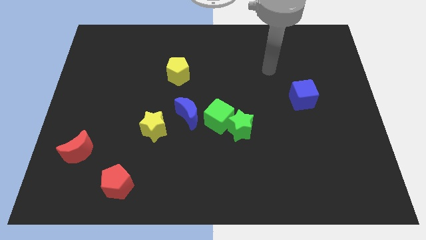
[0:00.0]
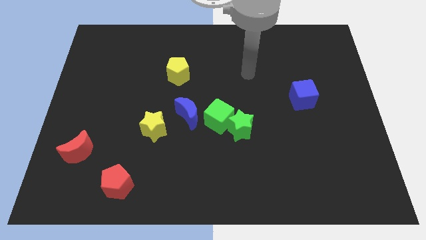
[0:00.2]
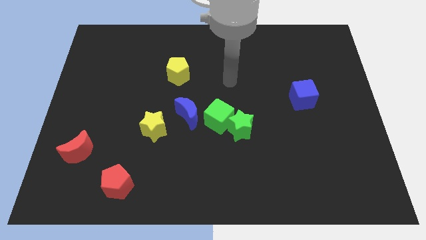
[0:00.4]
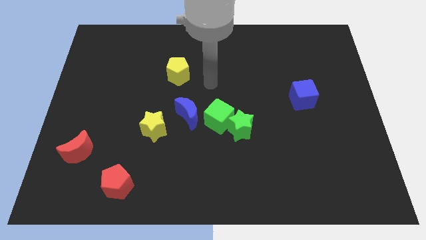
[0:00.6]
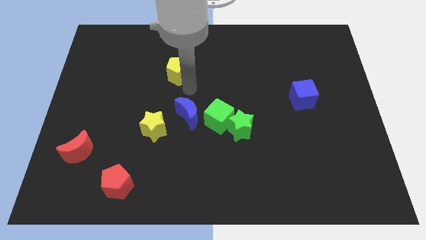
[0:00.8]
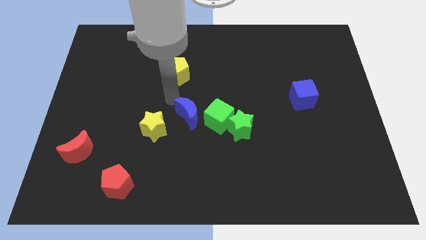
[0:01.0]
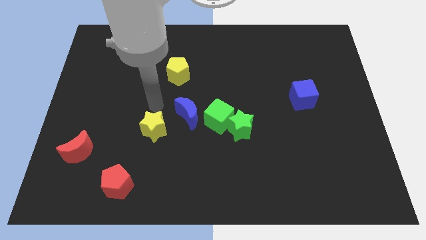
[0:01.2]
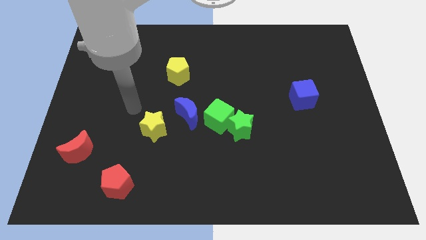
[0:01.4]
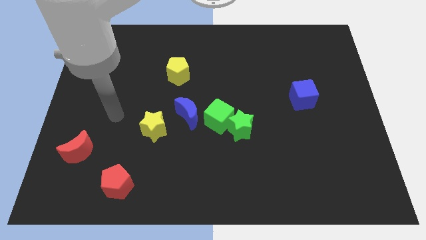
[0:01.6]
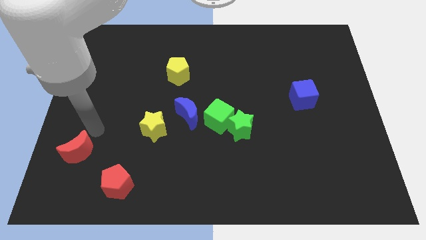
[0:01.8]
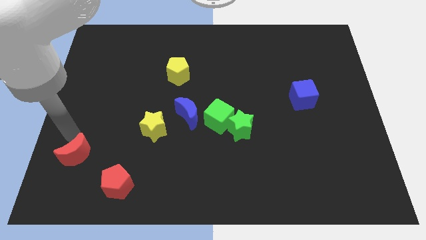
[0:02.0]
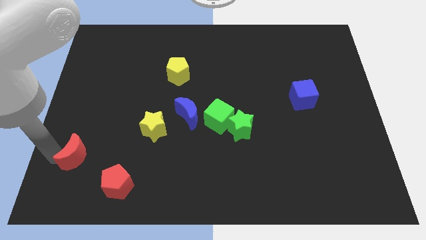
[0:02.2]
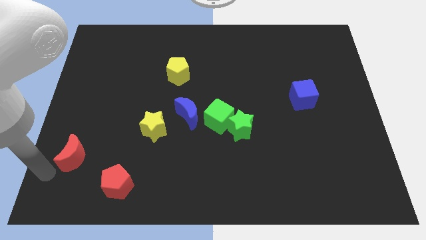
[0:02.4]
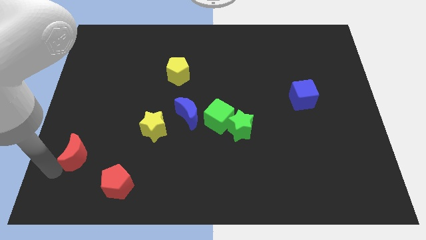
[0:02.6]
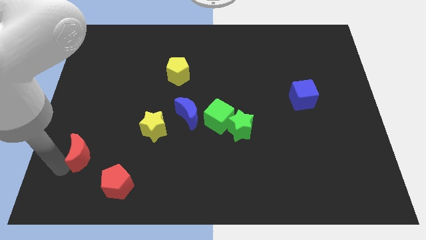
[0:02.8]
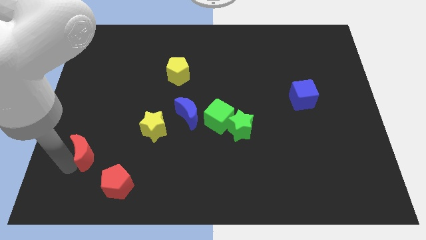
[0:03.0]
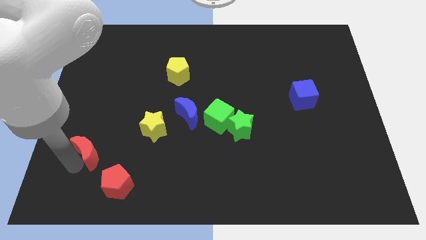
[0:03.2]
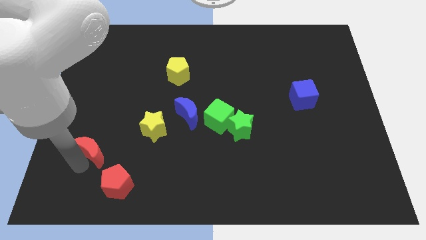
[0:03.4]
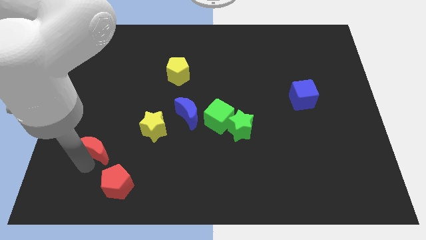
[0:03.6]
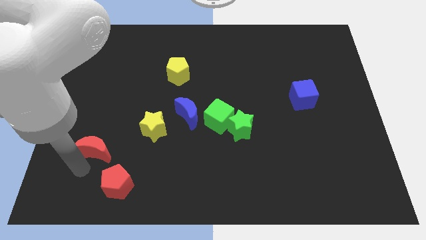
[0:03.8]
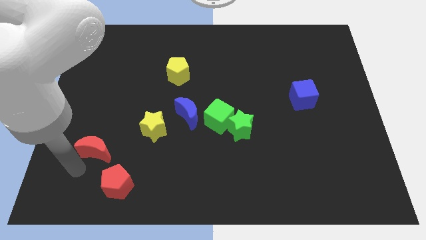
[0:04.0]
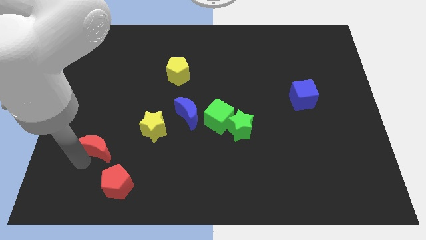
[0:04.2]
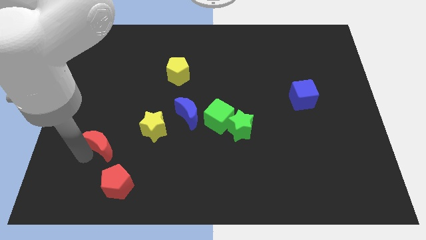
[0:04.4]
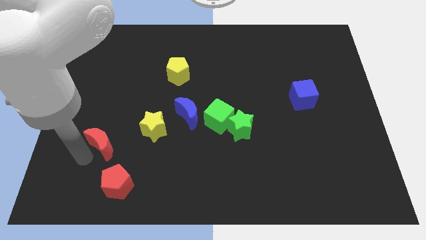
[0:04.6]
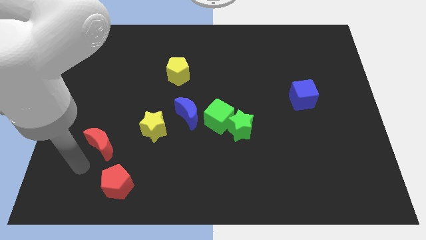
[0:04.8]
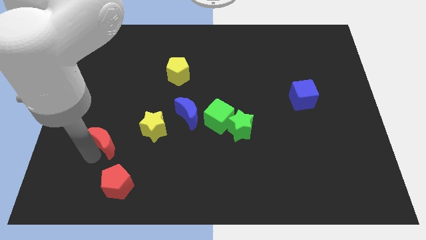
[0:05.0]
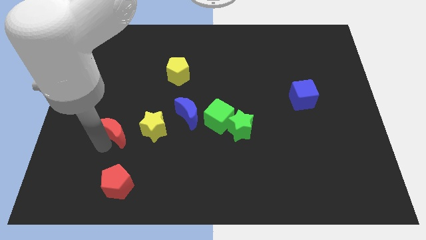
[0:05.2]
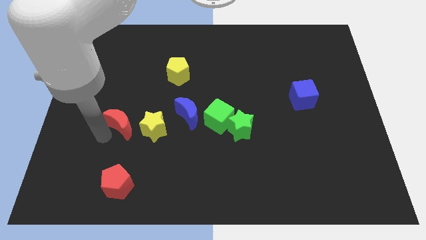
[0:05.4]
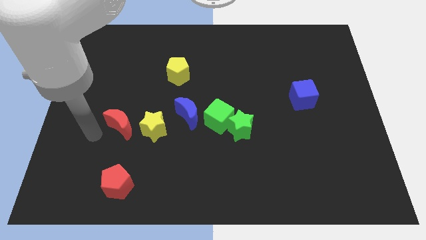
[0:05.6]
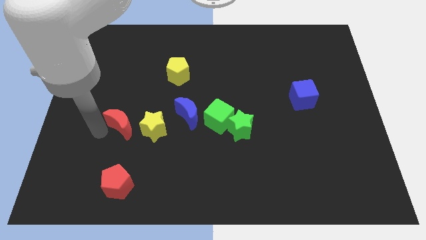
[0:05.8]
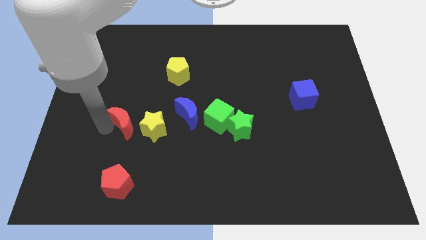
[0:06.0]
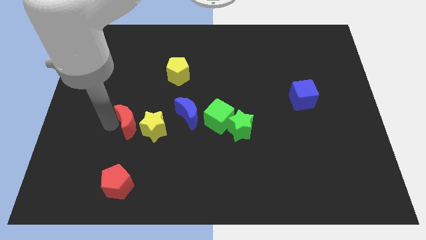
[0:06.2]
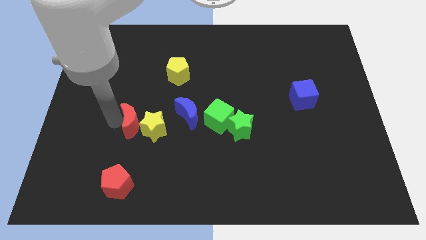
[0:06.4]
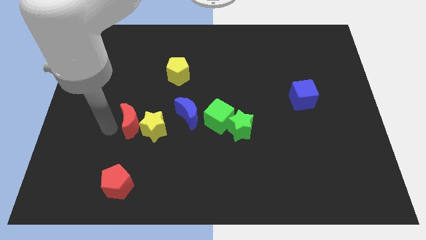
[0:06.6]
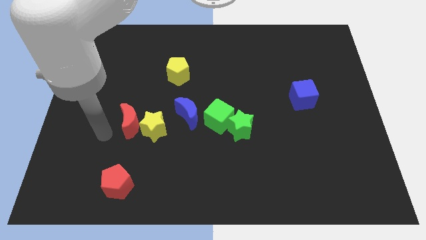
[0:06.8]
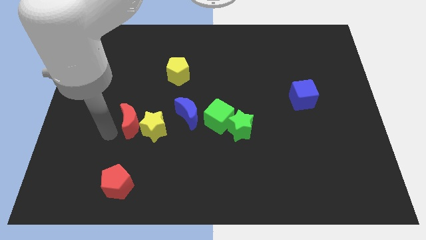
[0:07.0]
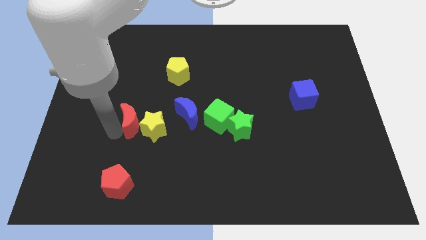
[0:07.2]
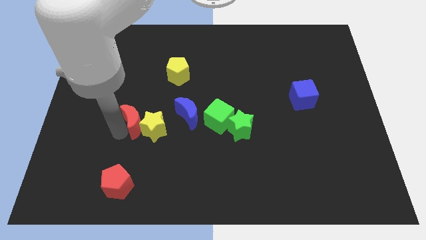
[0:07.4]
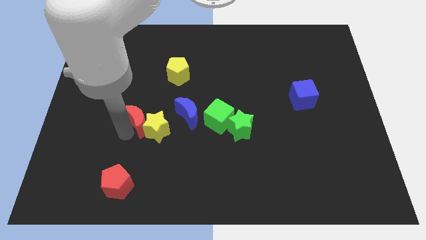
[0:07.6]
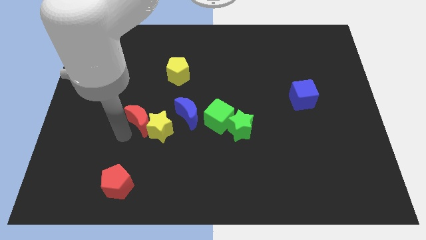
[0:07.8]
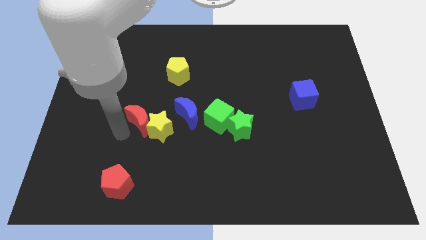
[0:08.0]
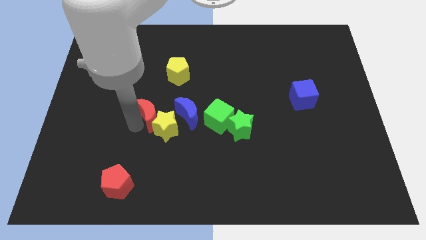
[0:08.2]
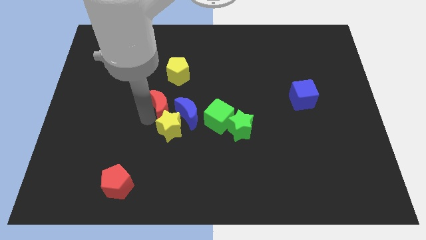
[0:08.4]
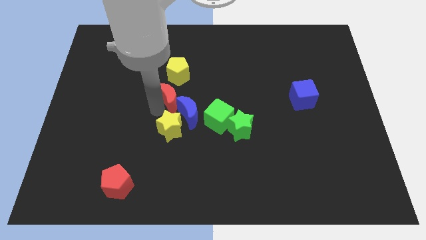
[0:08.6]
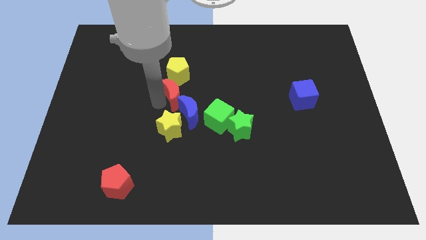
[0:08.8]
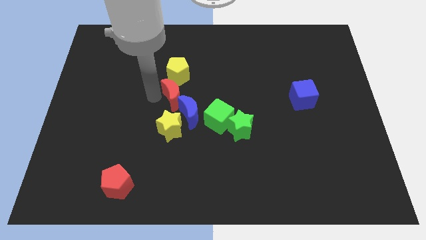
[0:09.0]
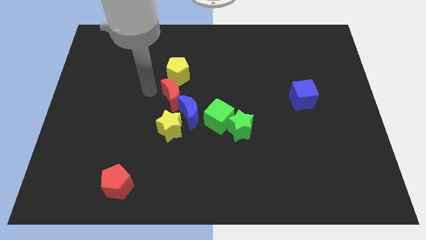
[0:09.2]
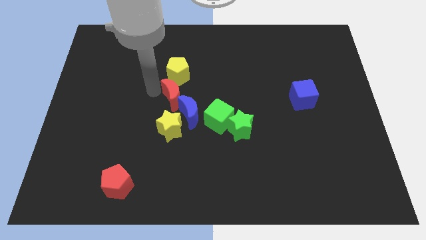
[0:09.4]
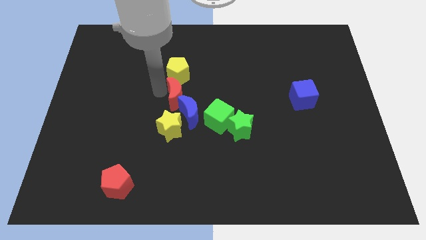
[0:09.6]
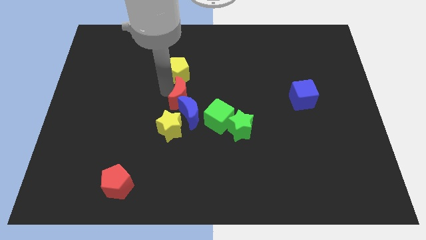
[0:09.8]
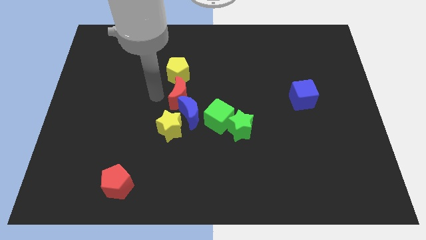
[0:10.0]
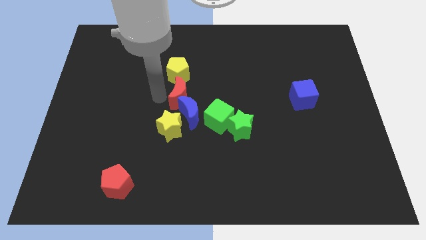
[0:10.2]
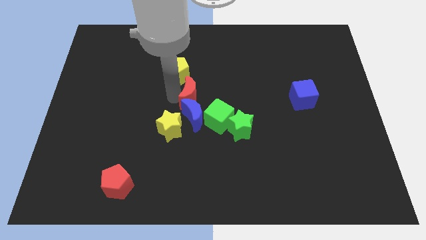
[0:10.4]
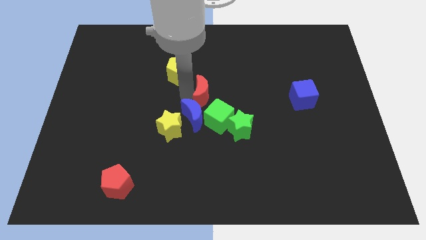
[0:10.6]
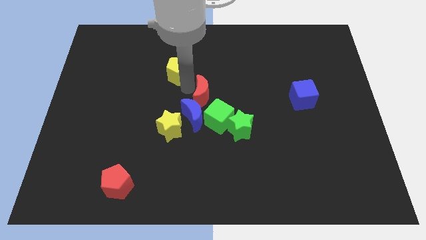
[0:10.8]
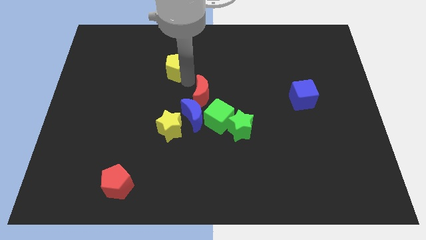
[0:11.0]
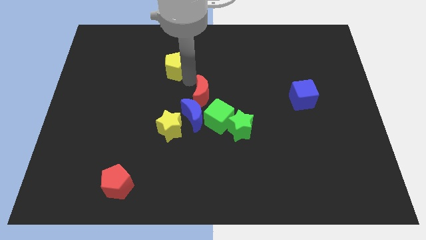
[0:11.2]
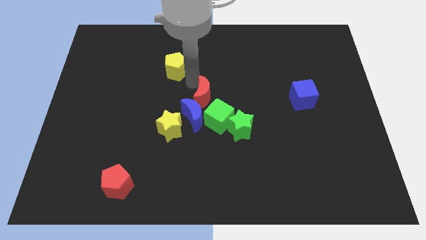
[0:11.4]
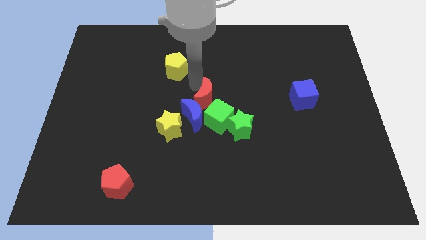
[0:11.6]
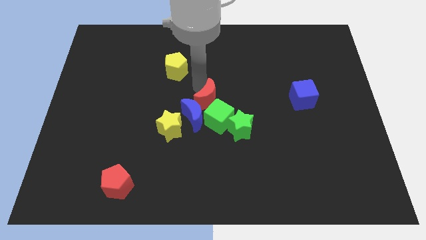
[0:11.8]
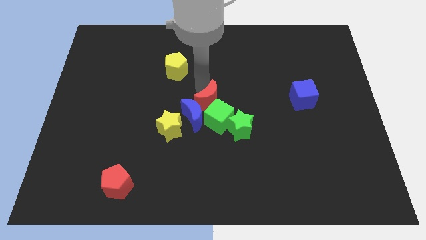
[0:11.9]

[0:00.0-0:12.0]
slide the red moon to the green cube

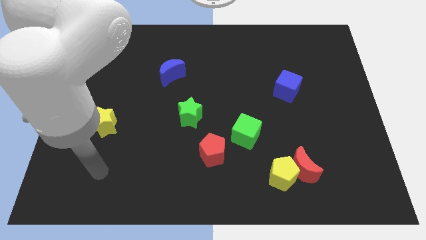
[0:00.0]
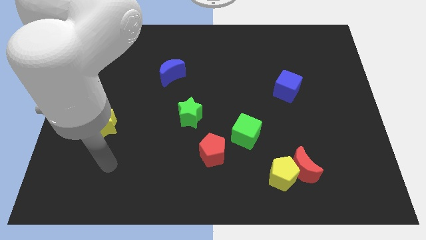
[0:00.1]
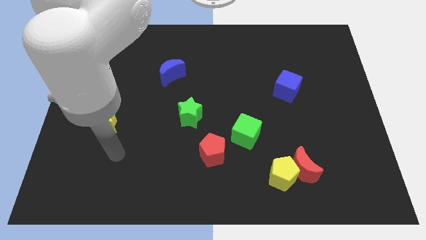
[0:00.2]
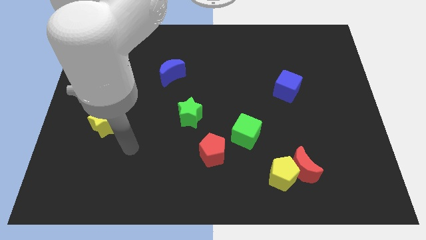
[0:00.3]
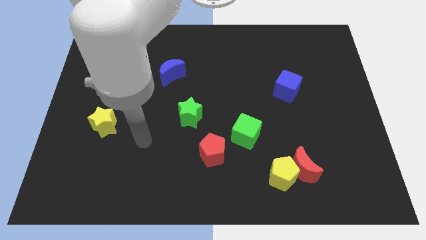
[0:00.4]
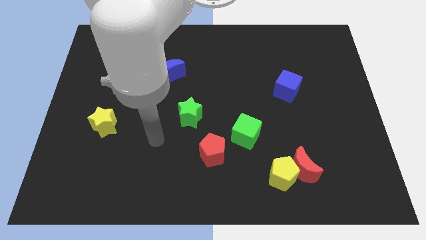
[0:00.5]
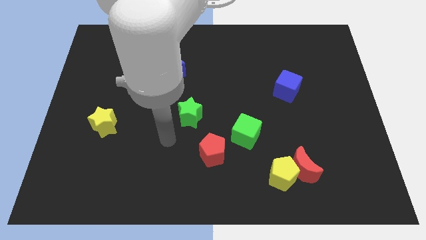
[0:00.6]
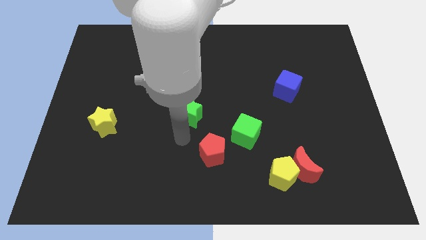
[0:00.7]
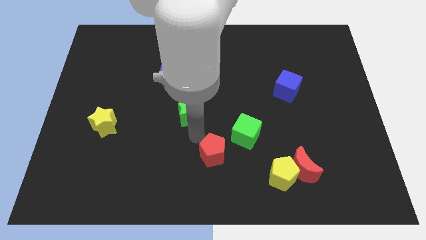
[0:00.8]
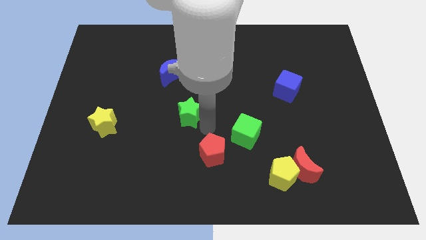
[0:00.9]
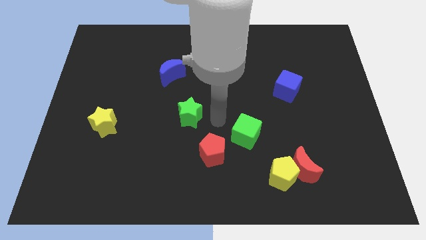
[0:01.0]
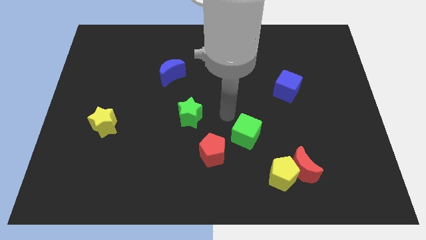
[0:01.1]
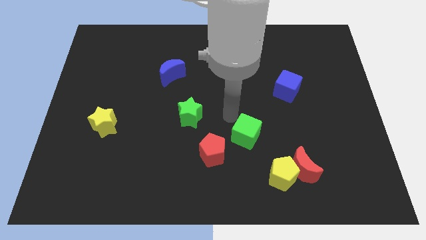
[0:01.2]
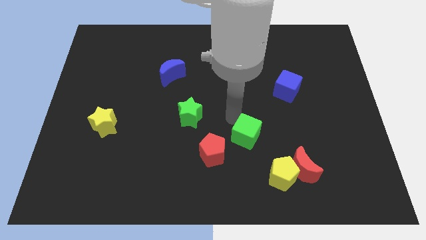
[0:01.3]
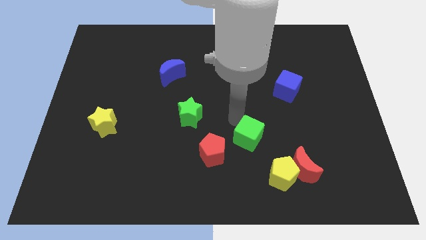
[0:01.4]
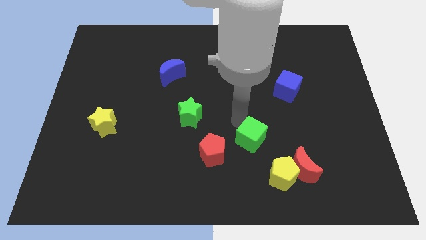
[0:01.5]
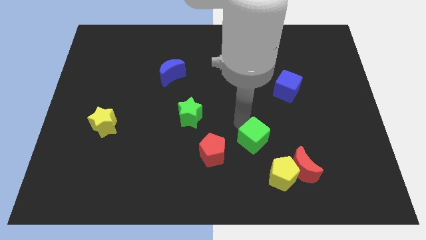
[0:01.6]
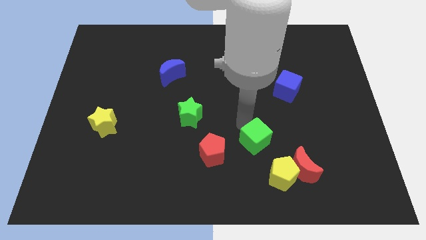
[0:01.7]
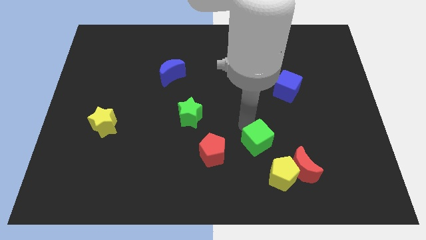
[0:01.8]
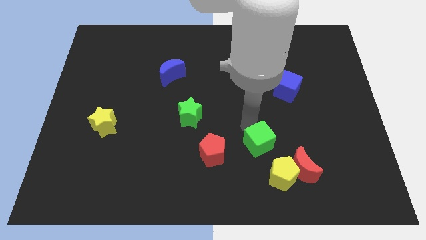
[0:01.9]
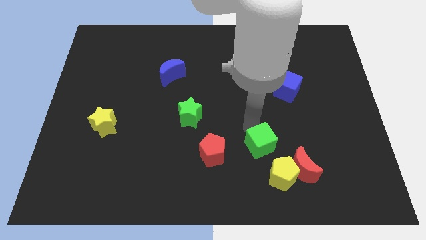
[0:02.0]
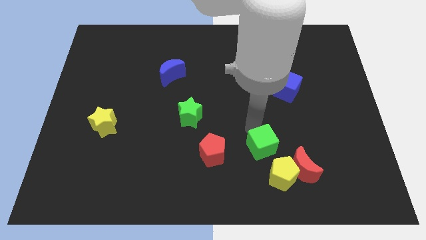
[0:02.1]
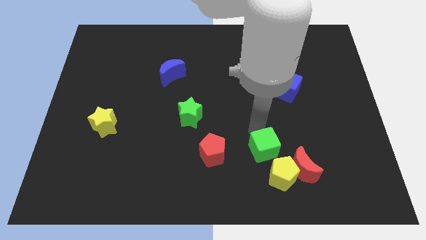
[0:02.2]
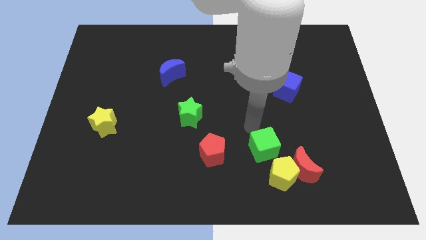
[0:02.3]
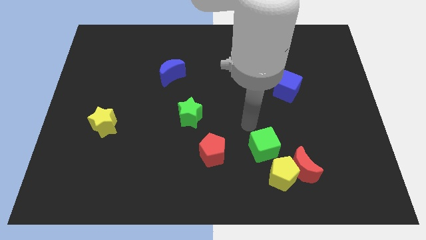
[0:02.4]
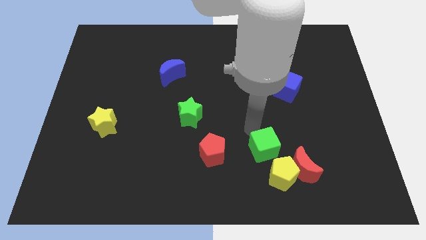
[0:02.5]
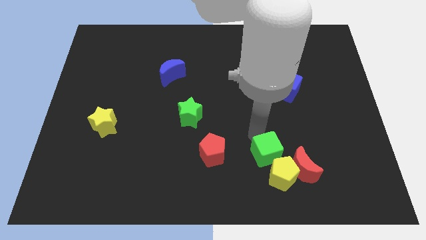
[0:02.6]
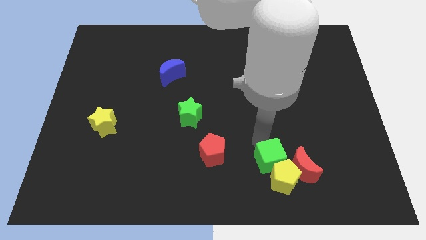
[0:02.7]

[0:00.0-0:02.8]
push the green cube towards the yellow pentagon
